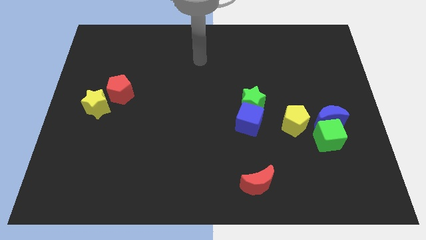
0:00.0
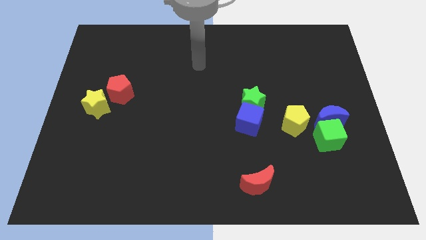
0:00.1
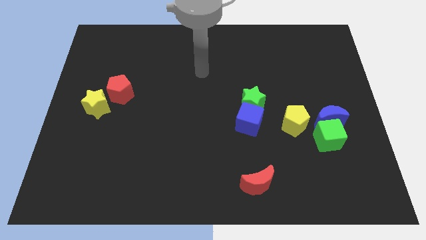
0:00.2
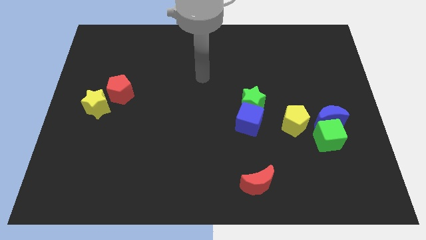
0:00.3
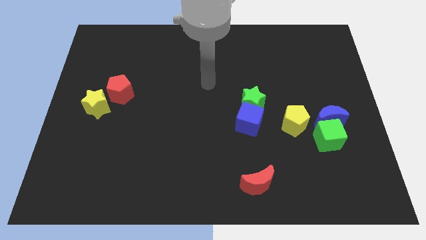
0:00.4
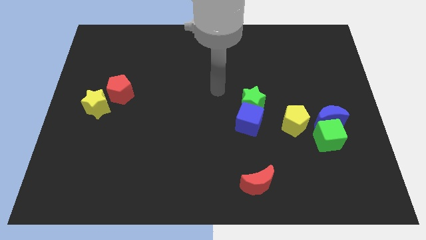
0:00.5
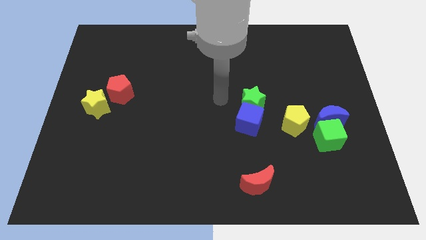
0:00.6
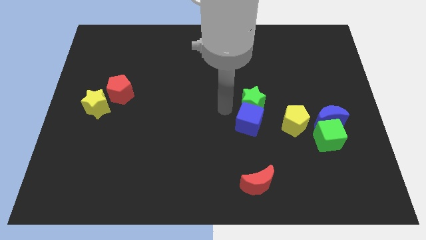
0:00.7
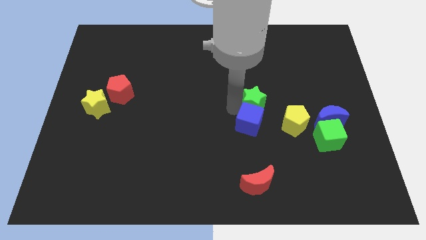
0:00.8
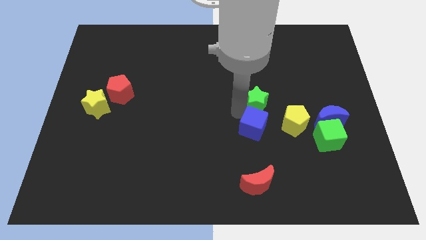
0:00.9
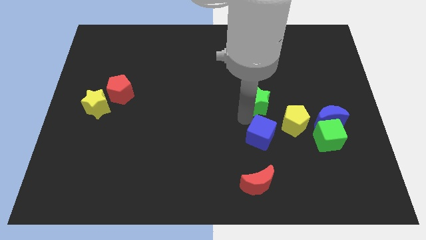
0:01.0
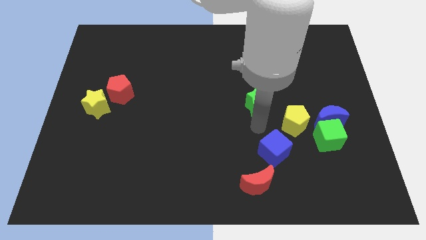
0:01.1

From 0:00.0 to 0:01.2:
move the green star away from the blue cube

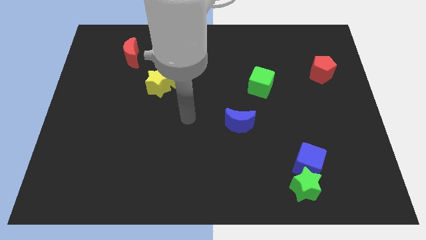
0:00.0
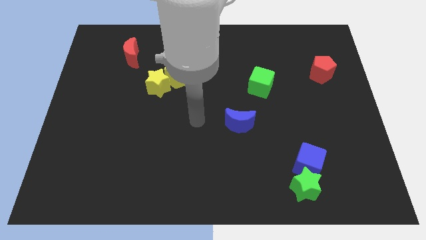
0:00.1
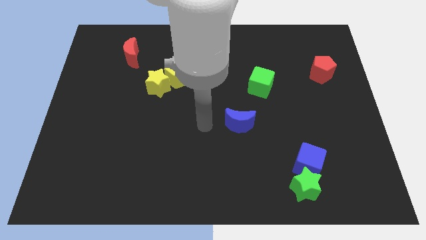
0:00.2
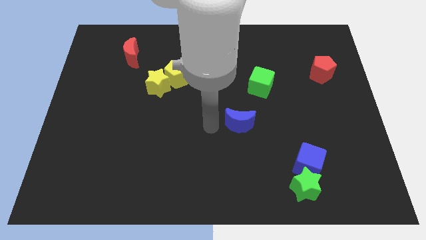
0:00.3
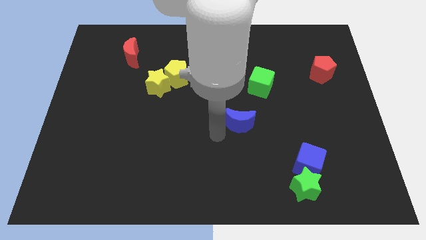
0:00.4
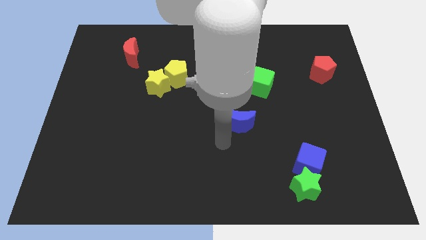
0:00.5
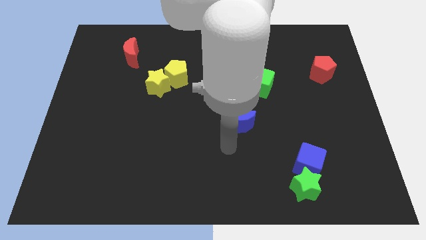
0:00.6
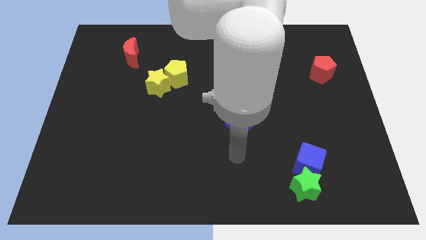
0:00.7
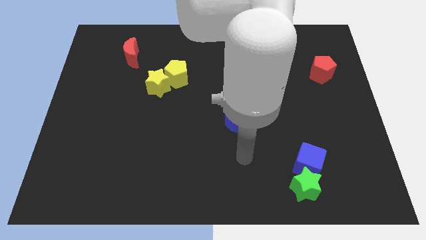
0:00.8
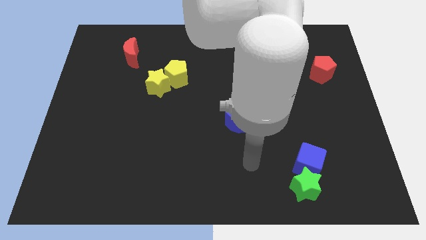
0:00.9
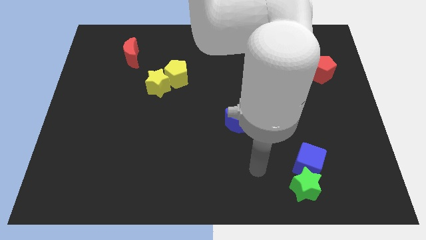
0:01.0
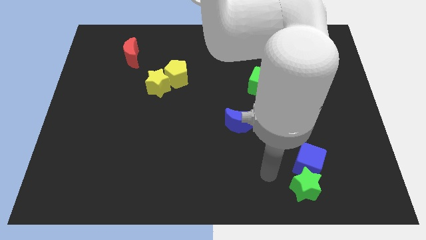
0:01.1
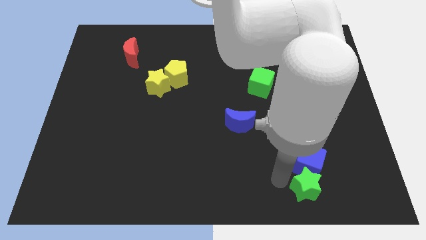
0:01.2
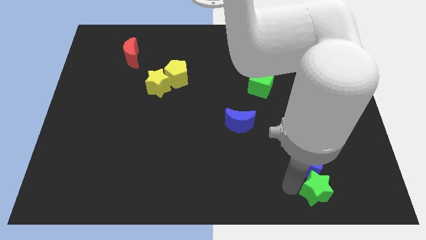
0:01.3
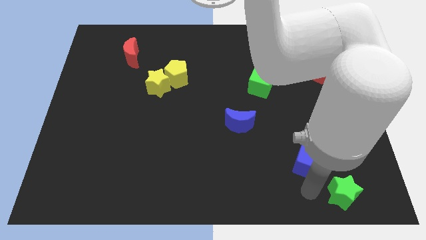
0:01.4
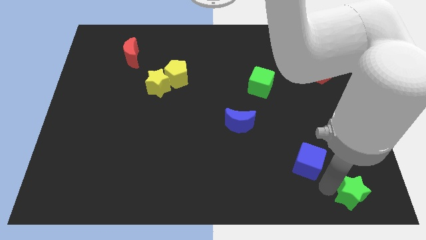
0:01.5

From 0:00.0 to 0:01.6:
pull the blue cube apart from the green star

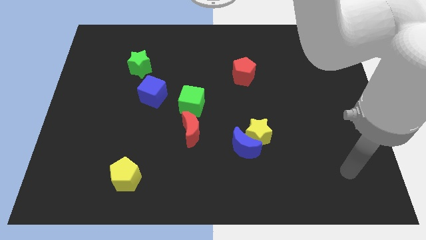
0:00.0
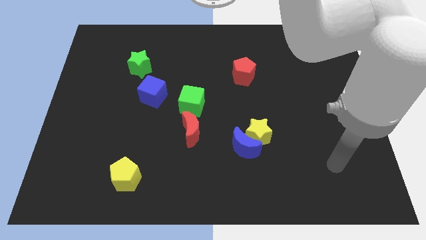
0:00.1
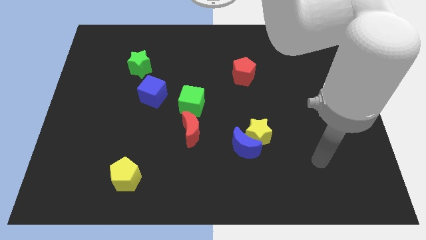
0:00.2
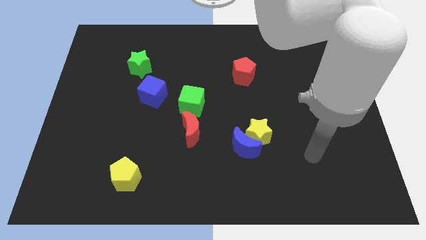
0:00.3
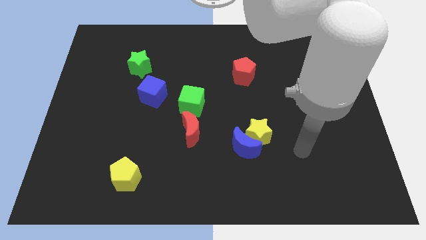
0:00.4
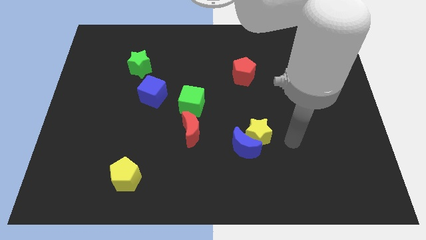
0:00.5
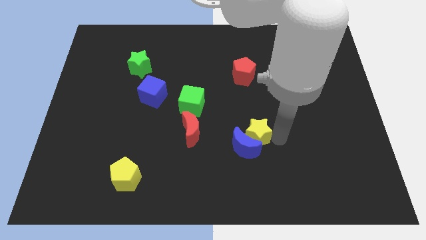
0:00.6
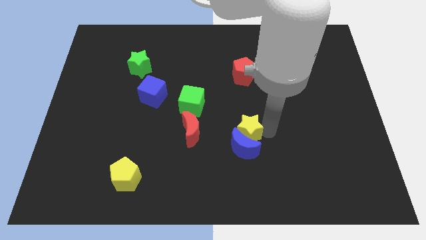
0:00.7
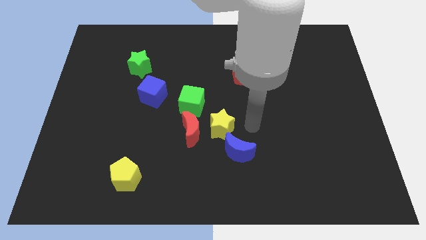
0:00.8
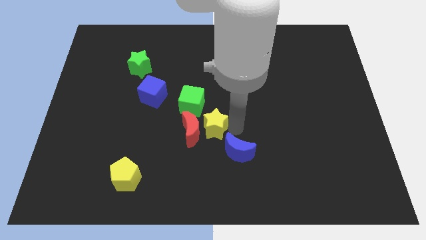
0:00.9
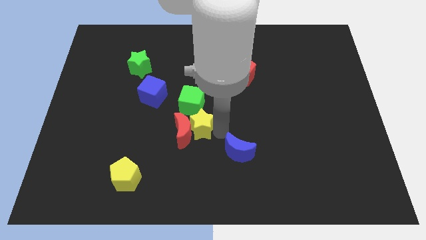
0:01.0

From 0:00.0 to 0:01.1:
separate the blue moon from the yellow star

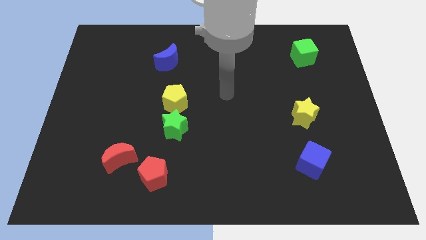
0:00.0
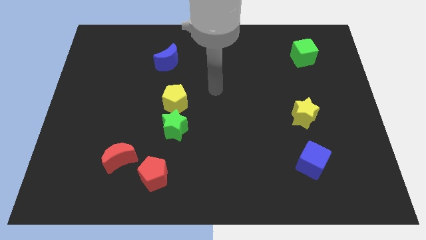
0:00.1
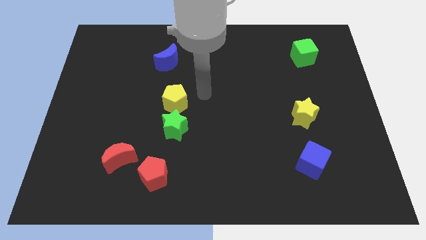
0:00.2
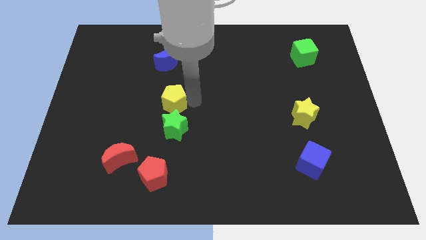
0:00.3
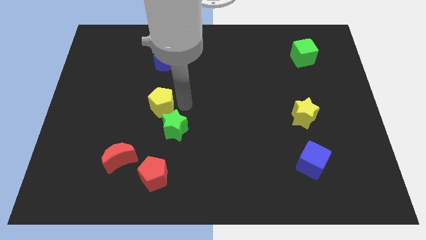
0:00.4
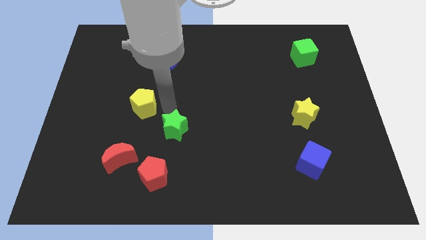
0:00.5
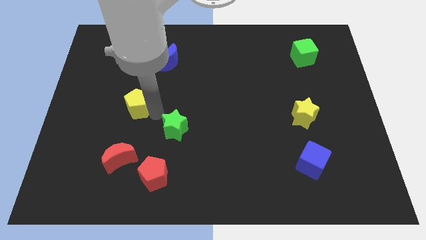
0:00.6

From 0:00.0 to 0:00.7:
move the green star away from the yellow pentagon

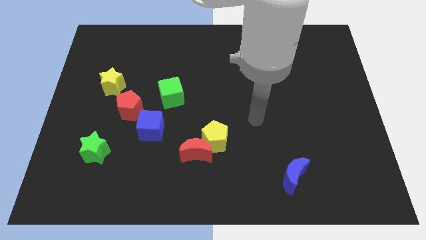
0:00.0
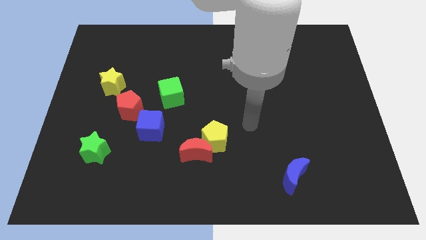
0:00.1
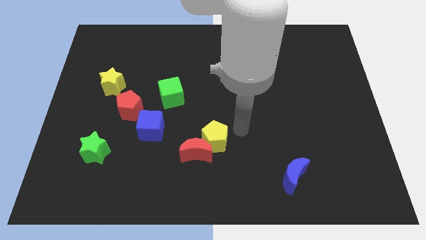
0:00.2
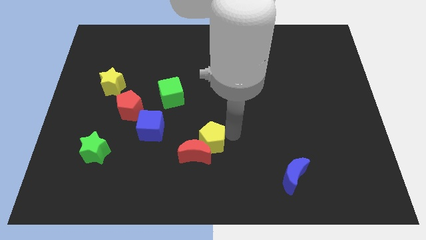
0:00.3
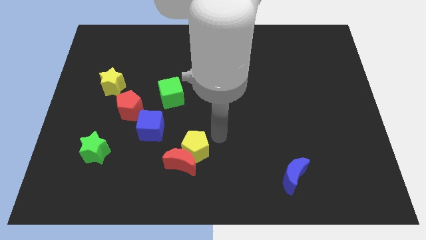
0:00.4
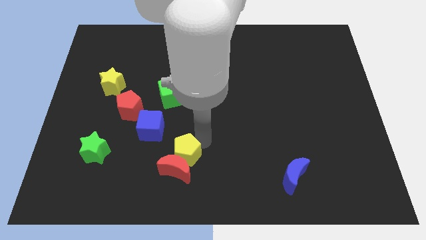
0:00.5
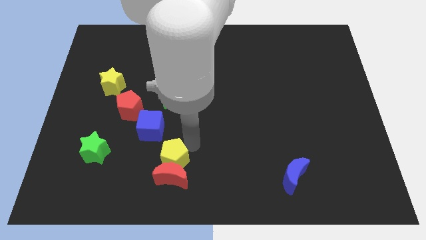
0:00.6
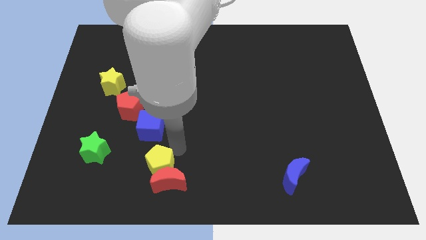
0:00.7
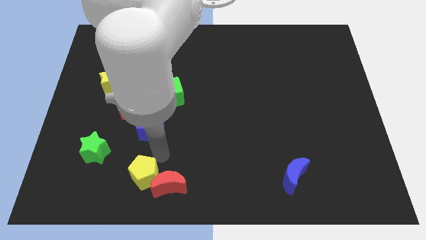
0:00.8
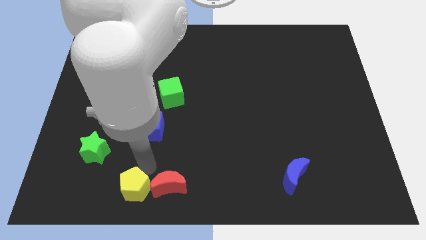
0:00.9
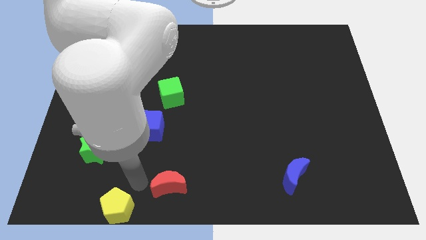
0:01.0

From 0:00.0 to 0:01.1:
pull the red moon apart from the yellow pentagon

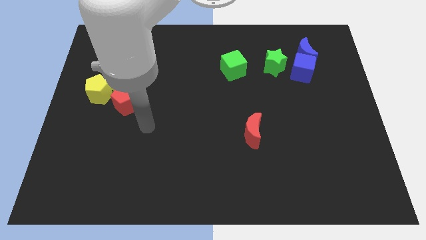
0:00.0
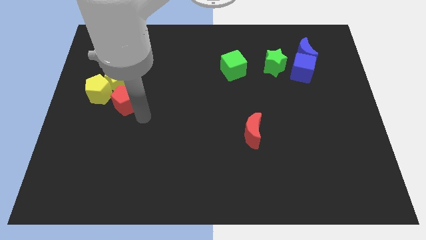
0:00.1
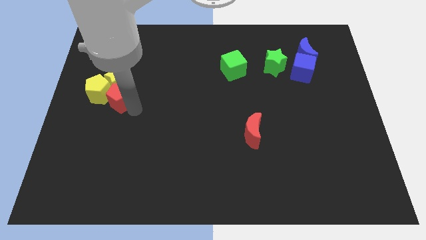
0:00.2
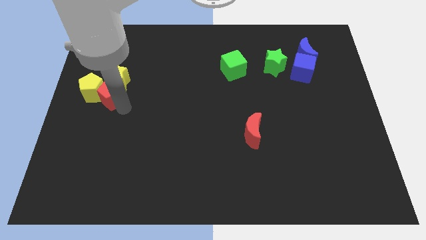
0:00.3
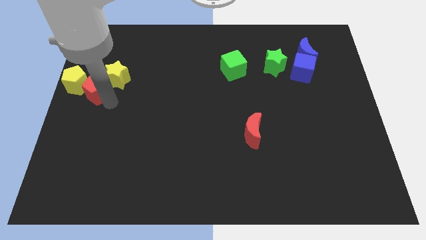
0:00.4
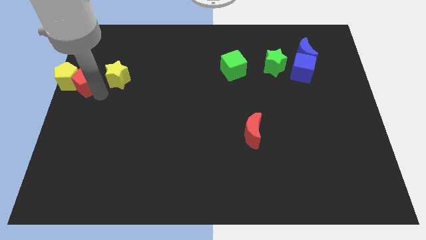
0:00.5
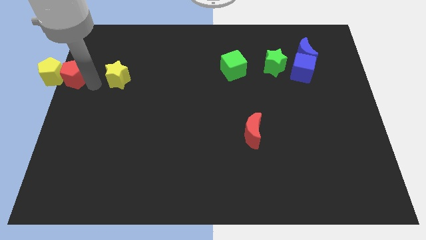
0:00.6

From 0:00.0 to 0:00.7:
separate the yellow star from the yellow pentagon and red pentagon

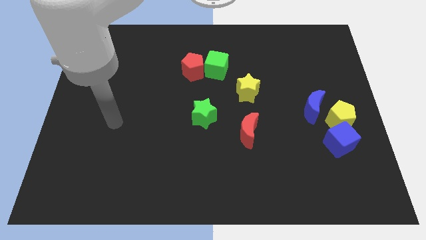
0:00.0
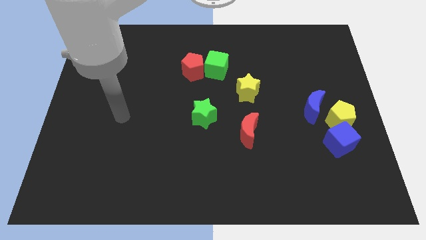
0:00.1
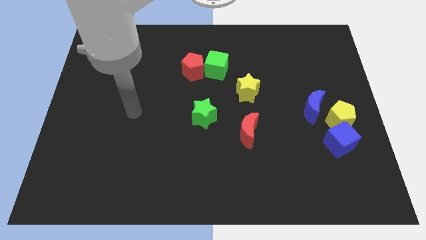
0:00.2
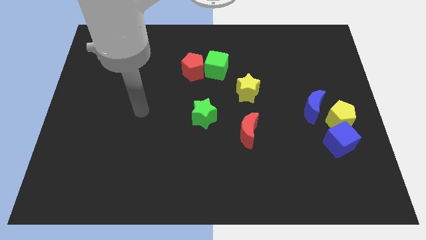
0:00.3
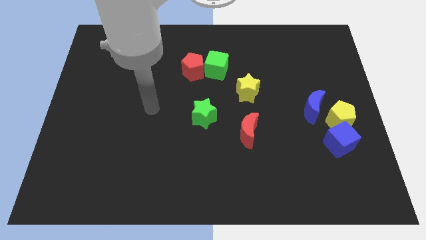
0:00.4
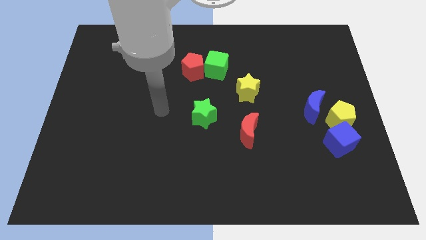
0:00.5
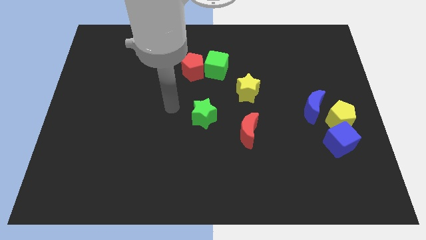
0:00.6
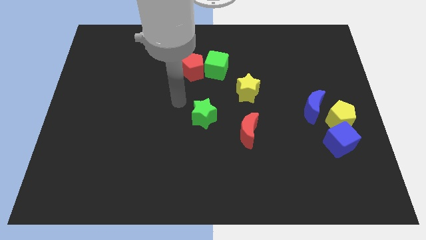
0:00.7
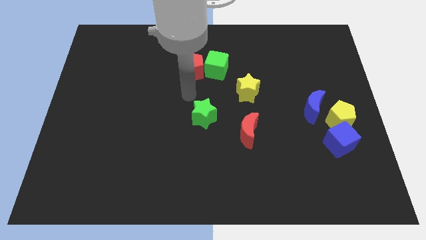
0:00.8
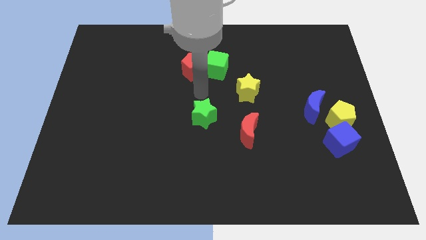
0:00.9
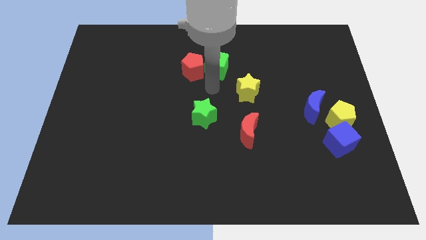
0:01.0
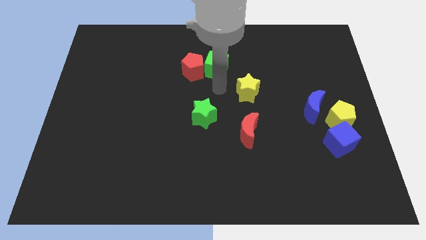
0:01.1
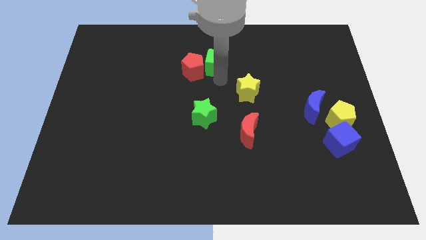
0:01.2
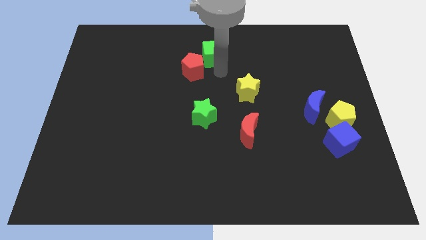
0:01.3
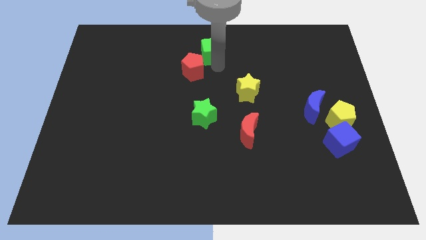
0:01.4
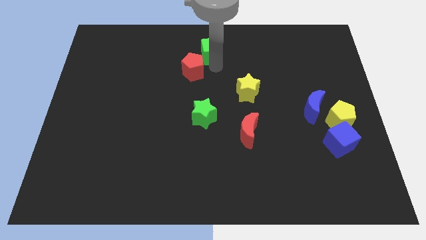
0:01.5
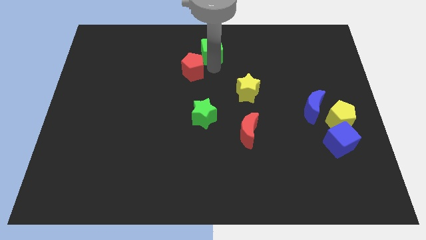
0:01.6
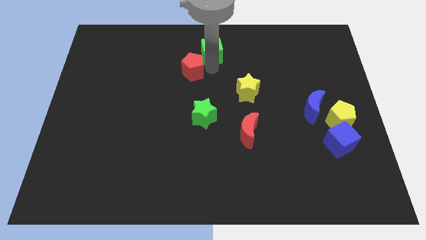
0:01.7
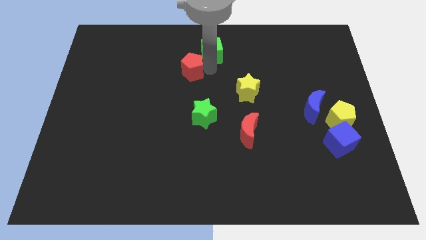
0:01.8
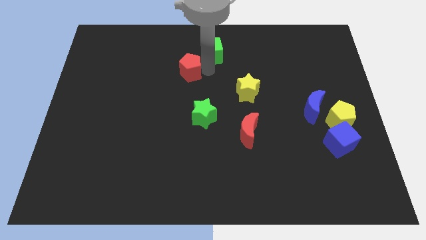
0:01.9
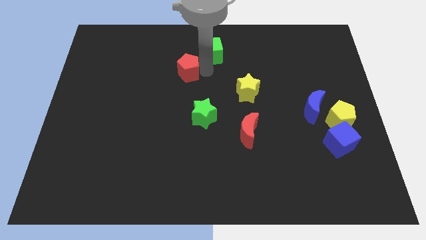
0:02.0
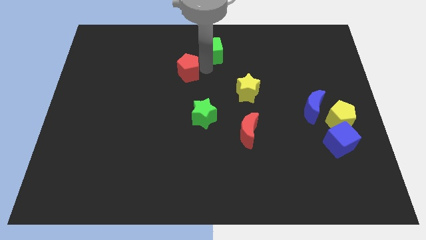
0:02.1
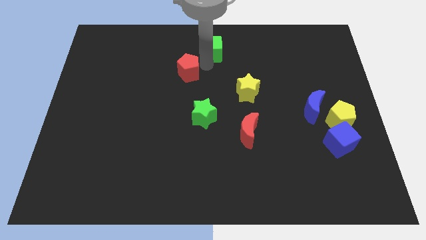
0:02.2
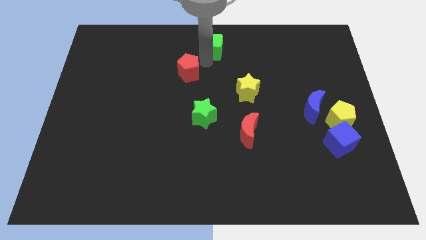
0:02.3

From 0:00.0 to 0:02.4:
separate the red pentagon from the green cube

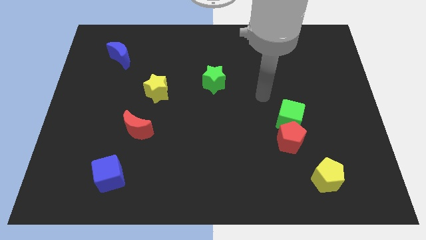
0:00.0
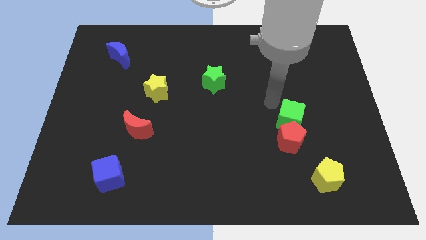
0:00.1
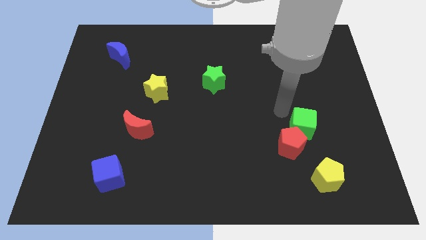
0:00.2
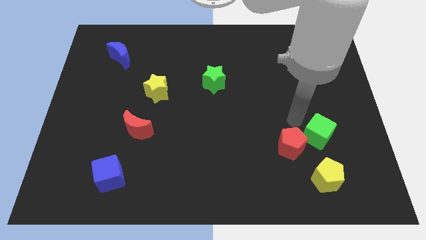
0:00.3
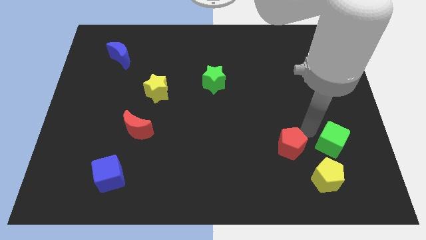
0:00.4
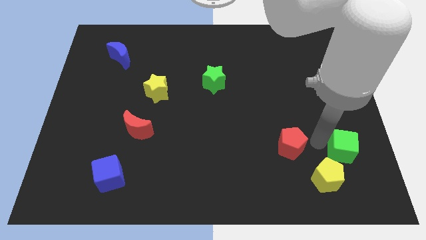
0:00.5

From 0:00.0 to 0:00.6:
pull the red pentagon apart from the green cube
